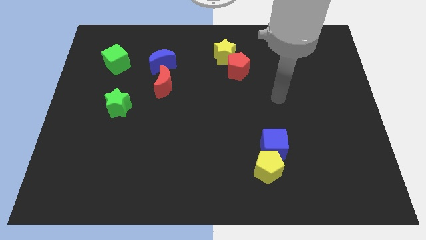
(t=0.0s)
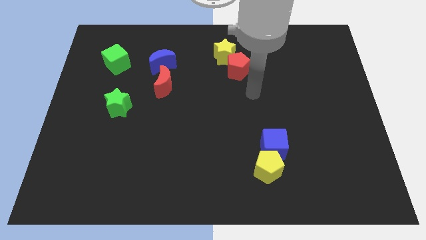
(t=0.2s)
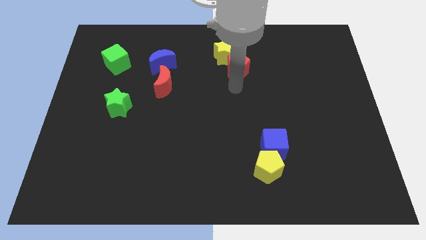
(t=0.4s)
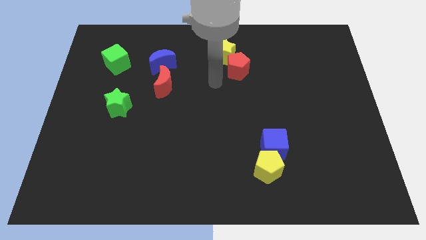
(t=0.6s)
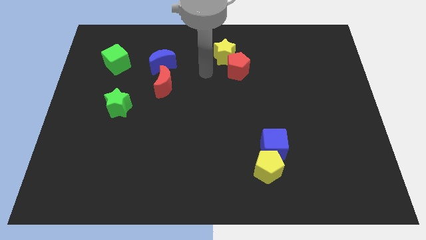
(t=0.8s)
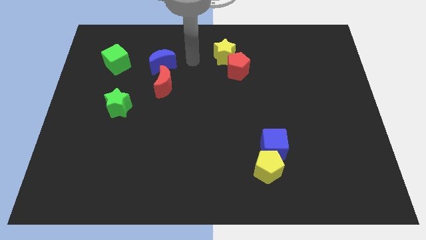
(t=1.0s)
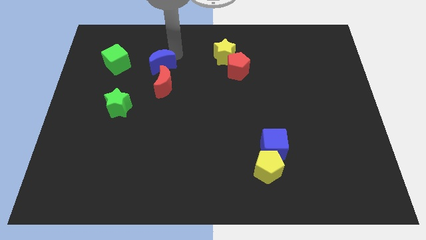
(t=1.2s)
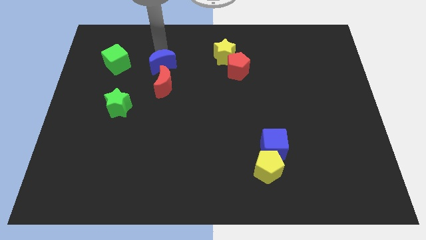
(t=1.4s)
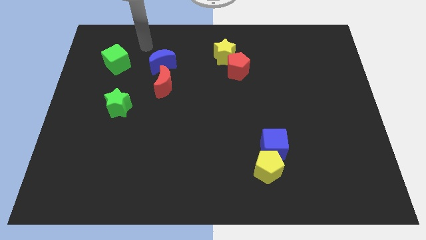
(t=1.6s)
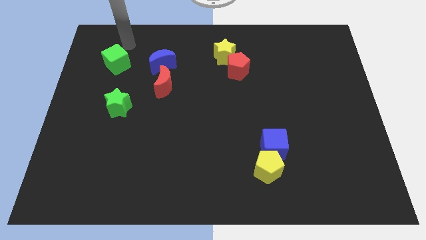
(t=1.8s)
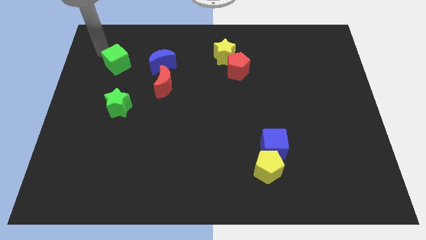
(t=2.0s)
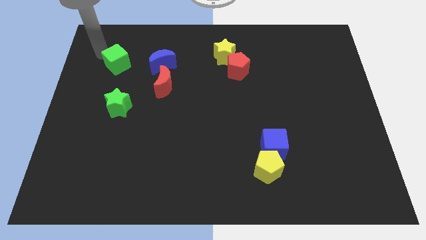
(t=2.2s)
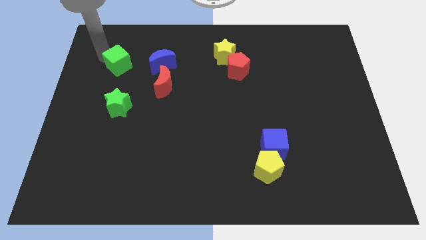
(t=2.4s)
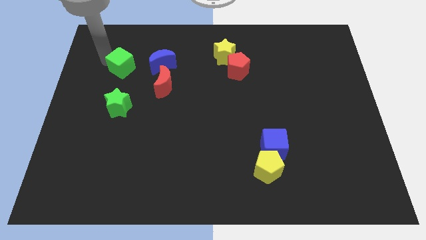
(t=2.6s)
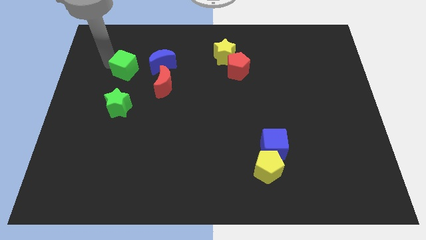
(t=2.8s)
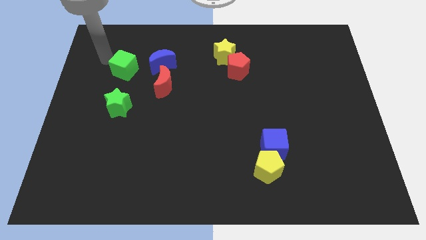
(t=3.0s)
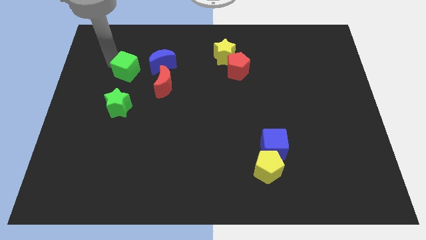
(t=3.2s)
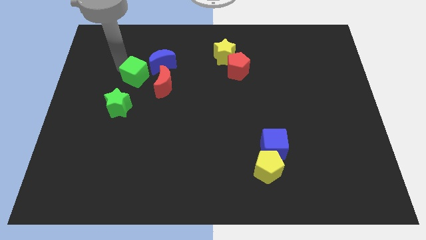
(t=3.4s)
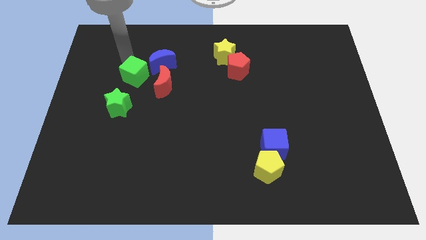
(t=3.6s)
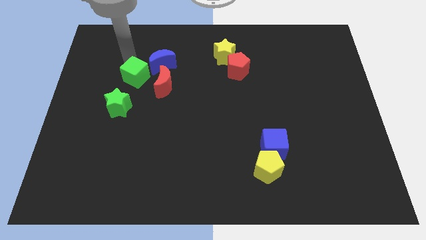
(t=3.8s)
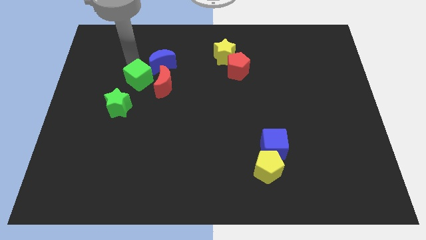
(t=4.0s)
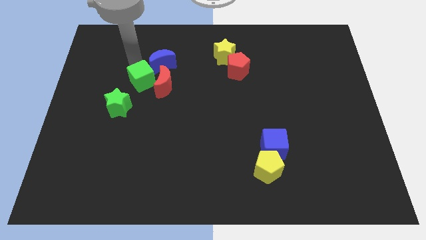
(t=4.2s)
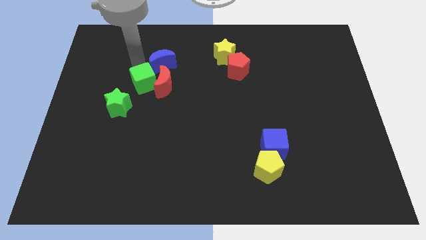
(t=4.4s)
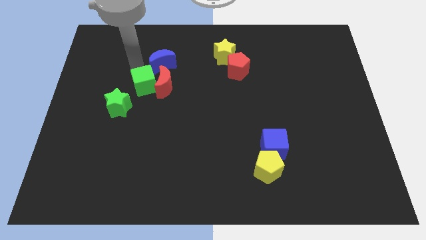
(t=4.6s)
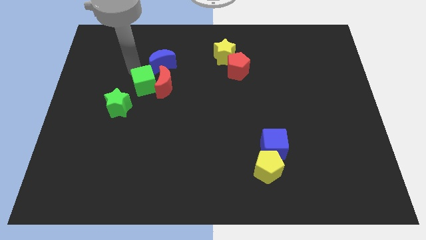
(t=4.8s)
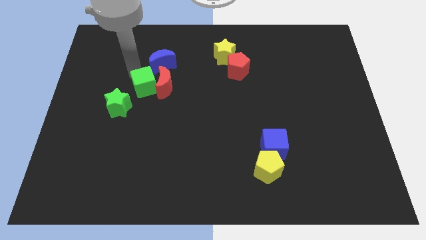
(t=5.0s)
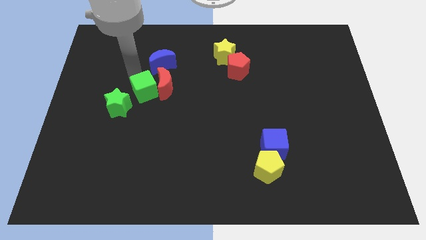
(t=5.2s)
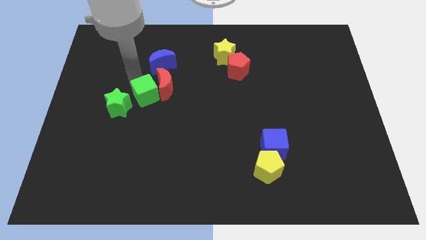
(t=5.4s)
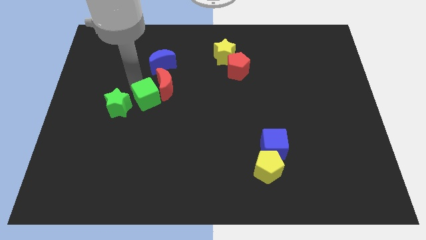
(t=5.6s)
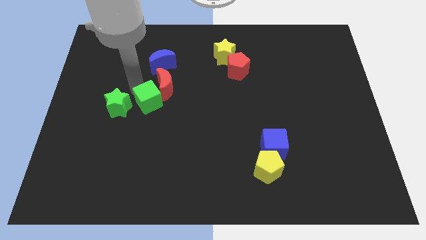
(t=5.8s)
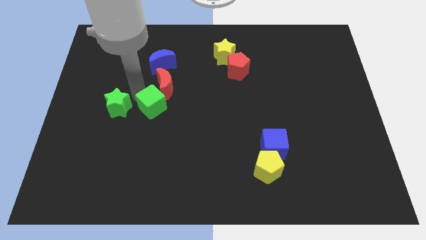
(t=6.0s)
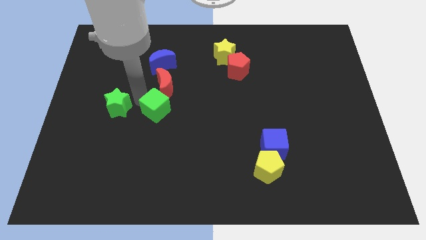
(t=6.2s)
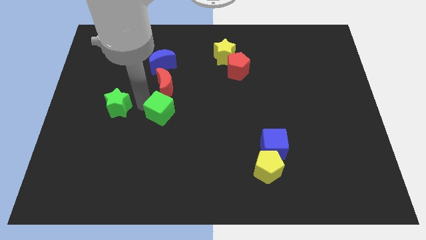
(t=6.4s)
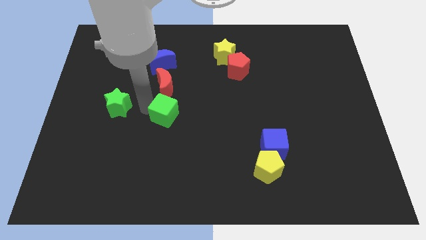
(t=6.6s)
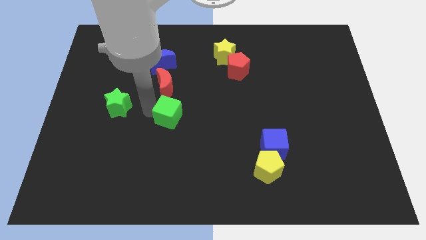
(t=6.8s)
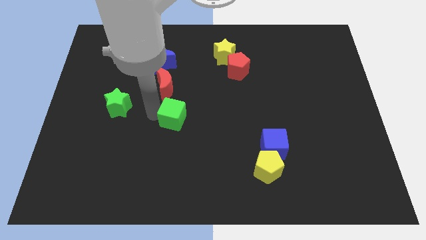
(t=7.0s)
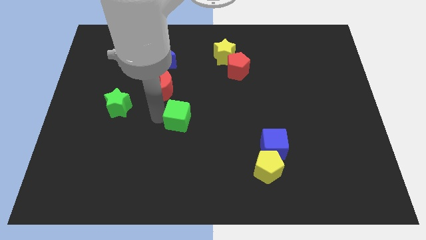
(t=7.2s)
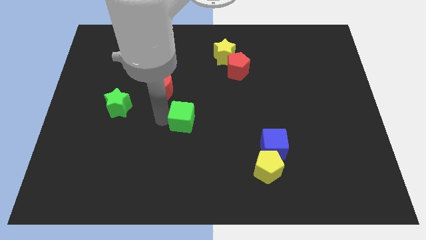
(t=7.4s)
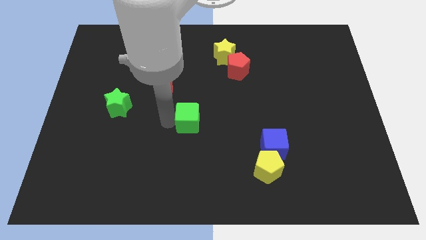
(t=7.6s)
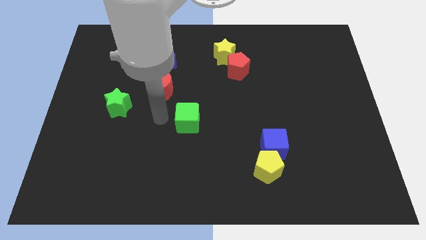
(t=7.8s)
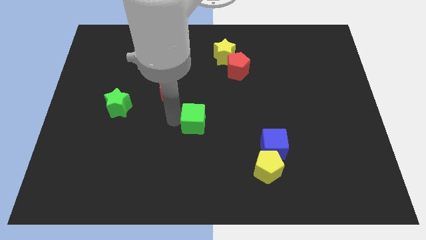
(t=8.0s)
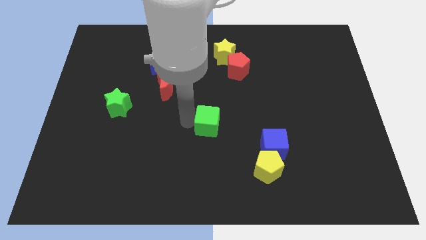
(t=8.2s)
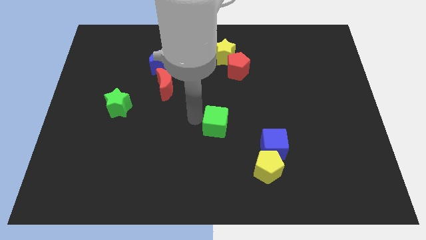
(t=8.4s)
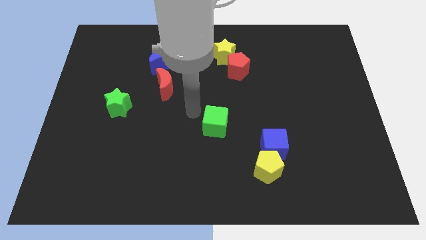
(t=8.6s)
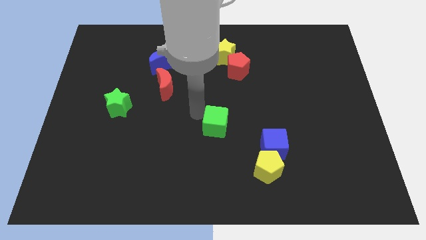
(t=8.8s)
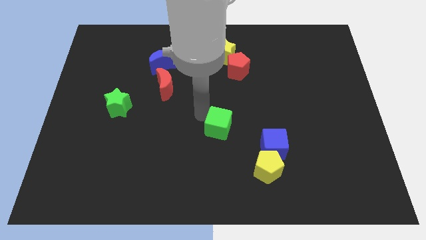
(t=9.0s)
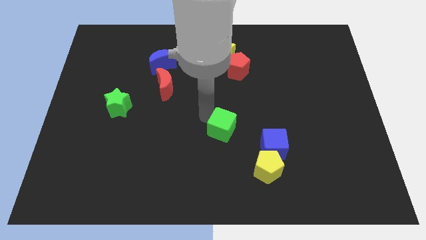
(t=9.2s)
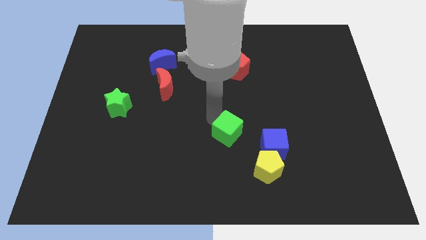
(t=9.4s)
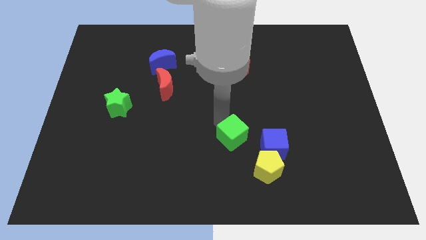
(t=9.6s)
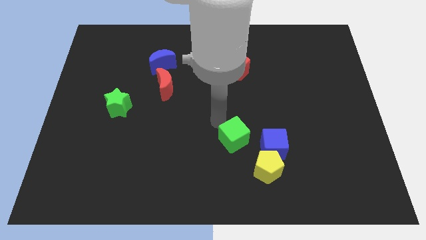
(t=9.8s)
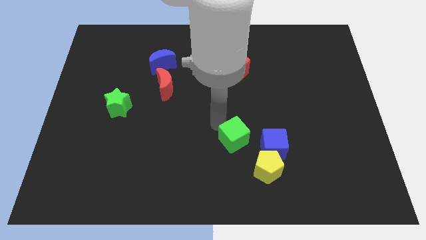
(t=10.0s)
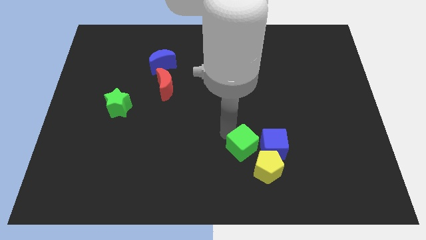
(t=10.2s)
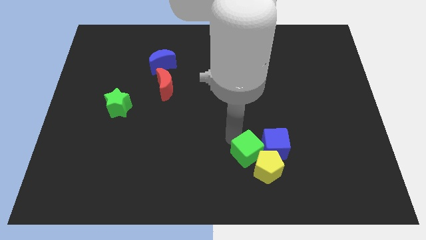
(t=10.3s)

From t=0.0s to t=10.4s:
move the green cube towards the yellow pentagon

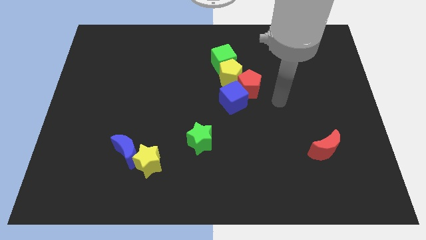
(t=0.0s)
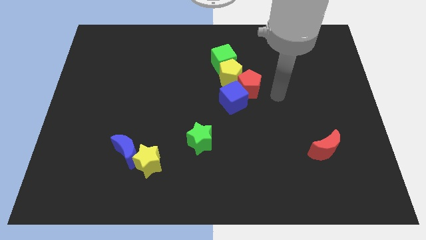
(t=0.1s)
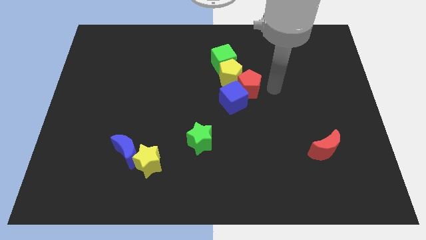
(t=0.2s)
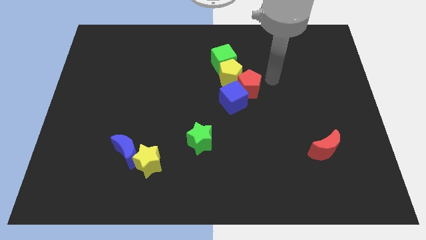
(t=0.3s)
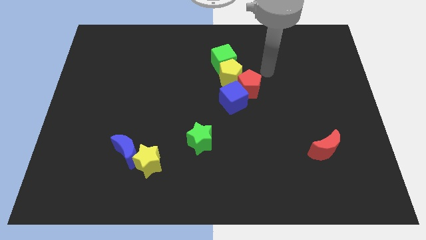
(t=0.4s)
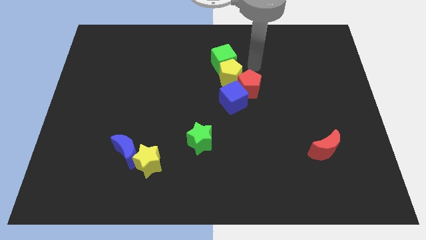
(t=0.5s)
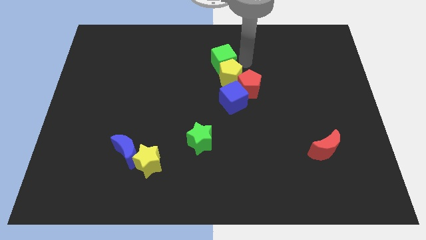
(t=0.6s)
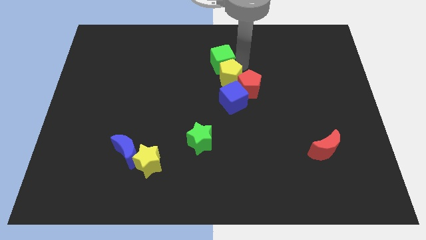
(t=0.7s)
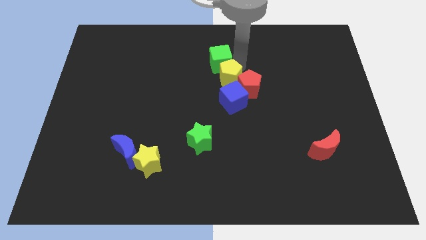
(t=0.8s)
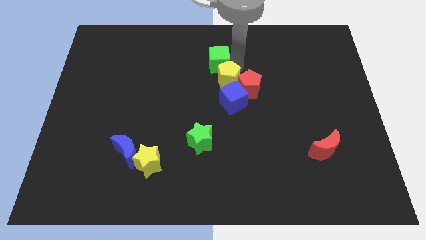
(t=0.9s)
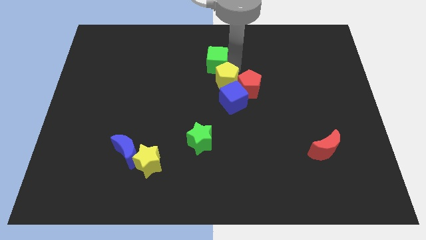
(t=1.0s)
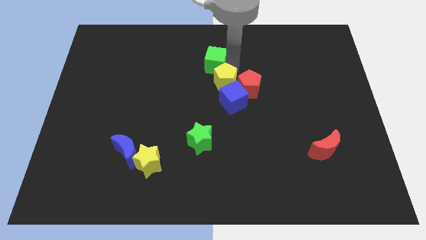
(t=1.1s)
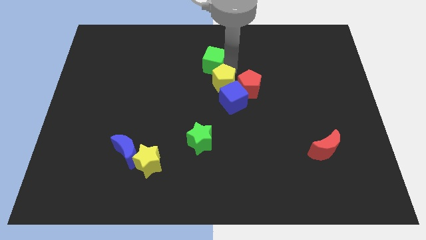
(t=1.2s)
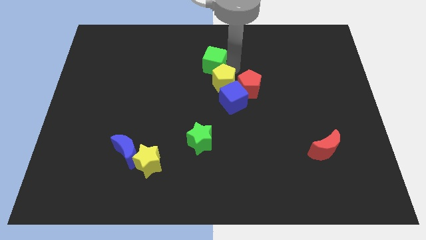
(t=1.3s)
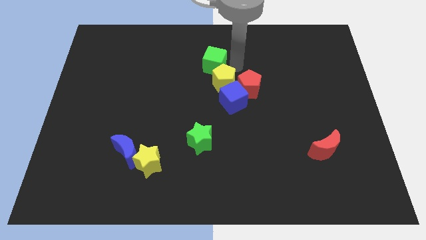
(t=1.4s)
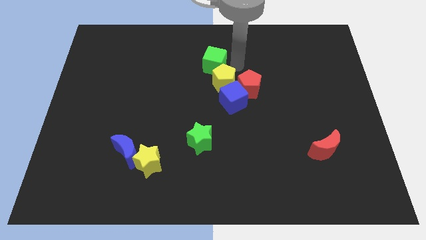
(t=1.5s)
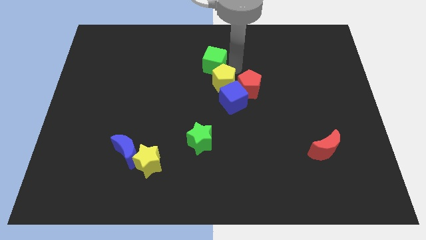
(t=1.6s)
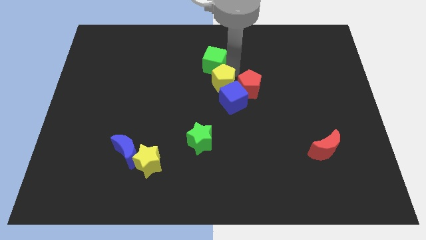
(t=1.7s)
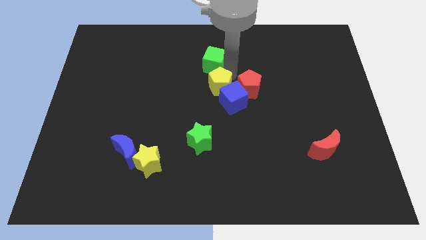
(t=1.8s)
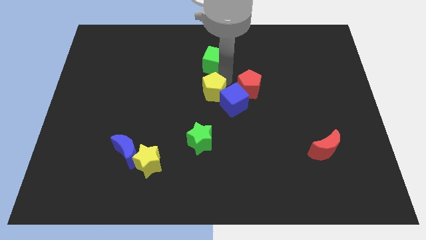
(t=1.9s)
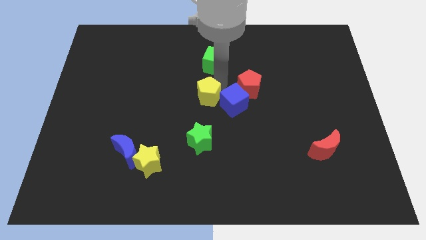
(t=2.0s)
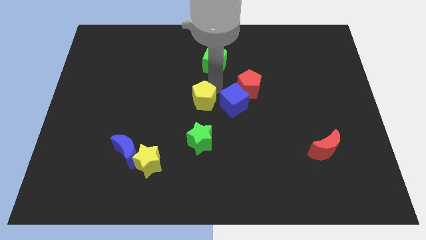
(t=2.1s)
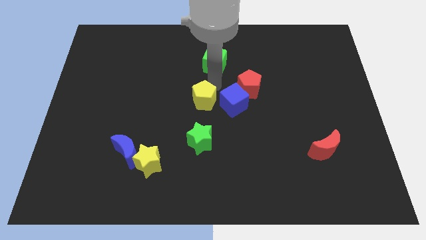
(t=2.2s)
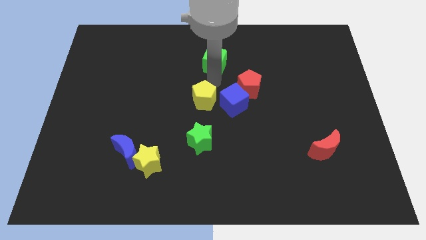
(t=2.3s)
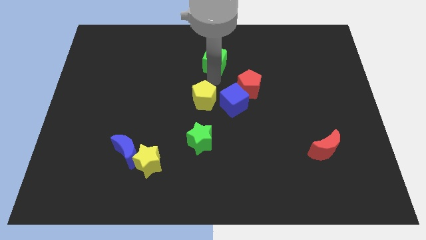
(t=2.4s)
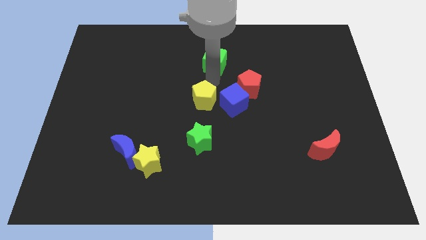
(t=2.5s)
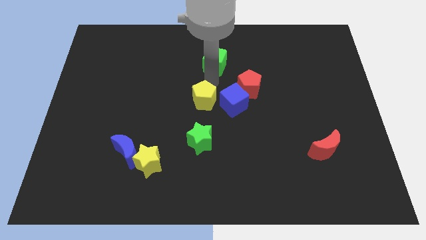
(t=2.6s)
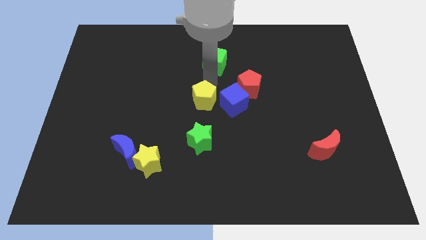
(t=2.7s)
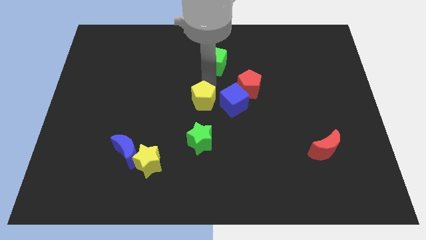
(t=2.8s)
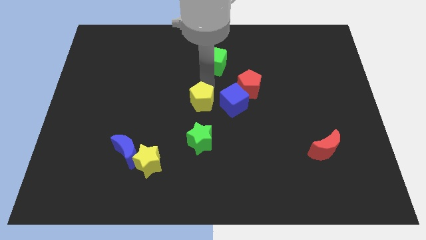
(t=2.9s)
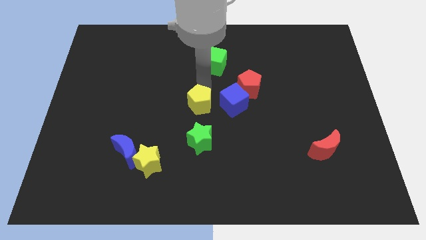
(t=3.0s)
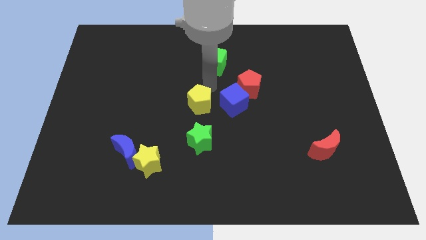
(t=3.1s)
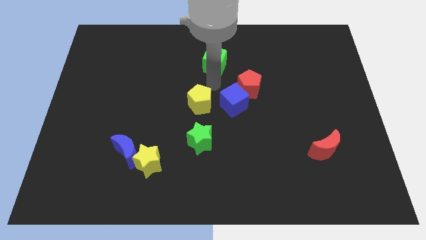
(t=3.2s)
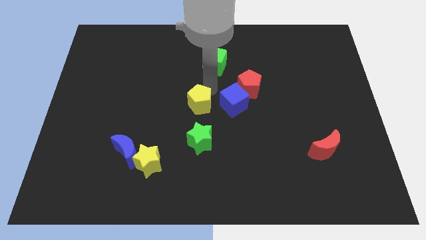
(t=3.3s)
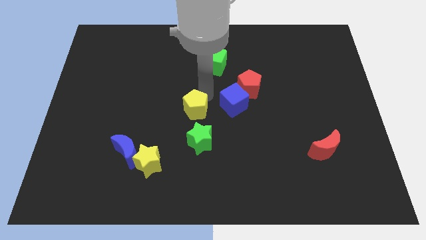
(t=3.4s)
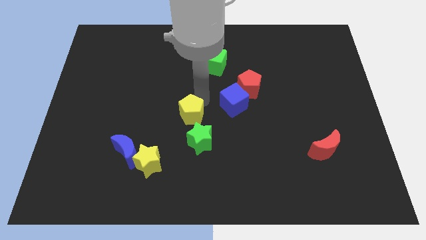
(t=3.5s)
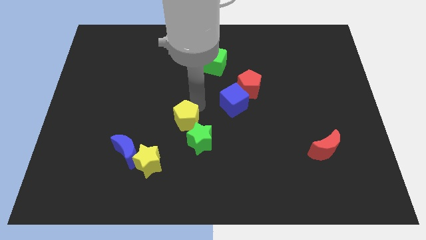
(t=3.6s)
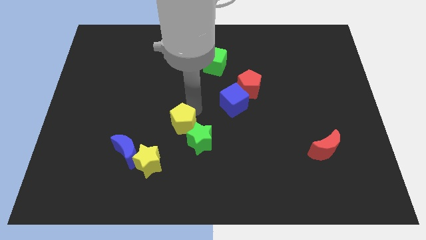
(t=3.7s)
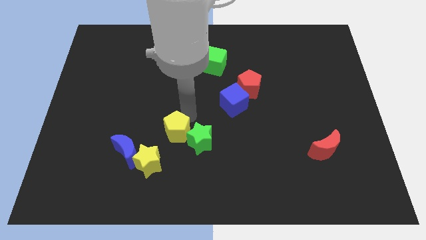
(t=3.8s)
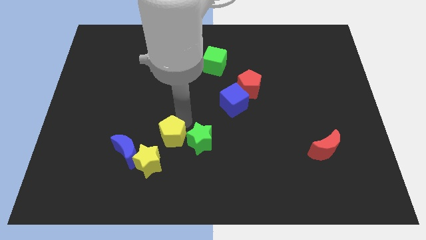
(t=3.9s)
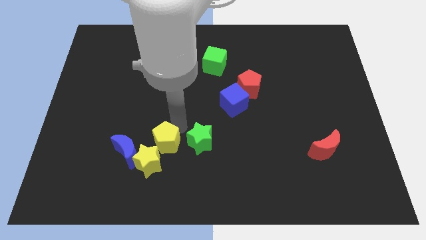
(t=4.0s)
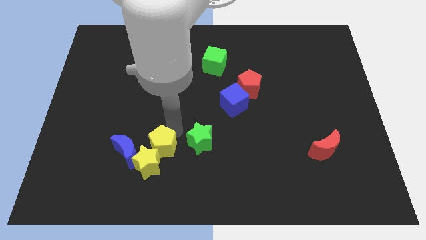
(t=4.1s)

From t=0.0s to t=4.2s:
move the yellow pentagon to the yellow star
